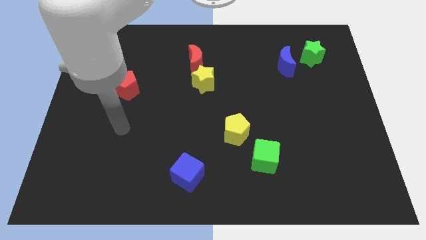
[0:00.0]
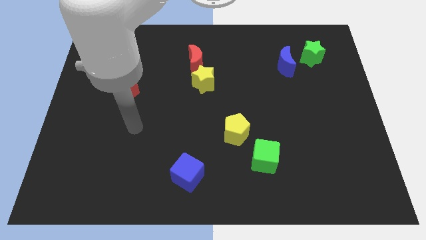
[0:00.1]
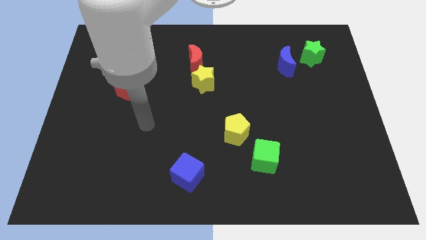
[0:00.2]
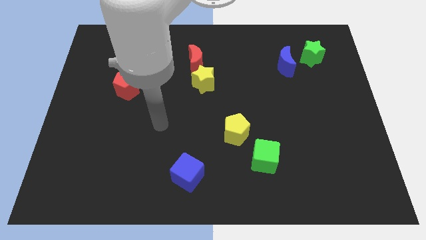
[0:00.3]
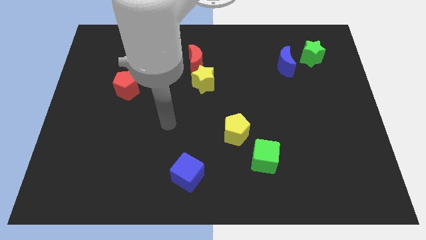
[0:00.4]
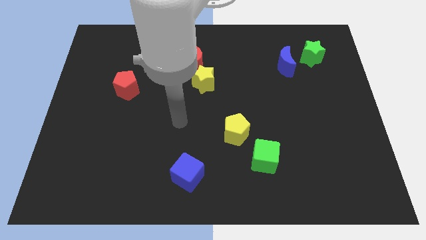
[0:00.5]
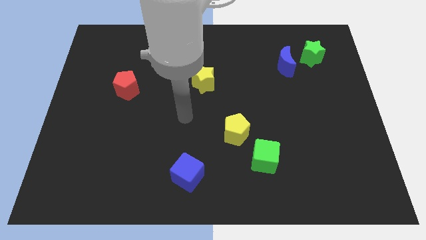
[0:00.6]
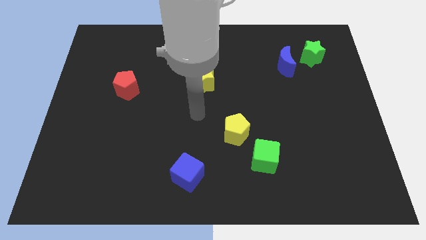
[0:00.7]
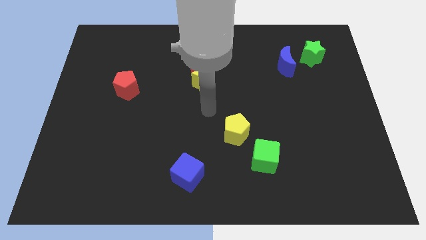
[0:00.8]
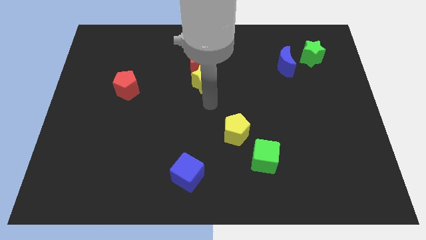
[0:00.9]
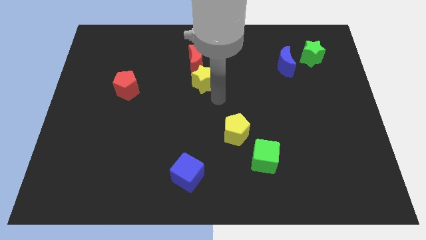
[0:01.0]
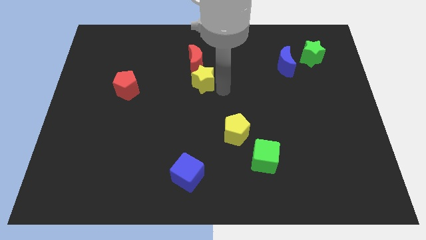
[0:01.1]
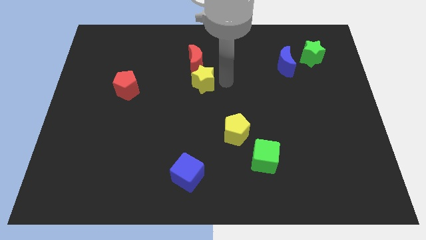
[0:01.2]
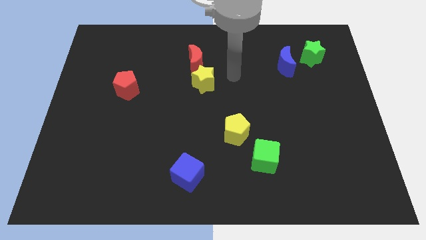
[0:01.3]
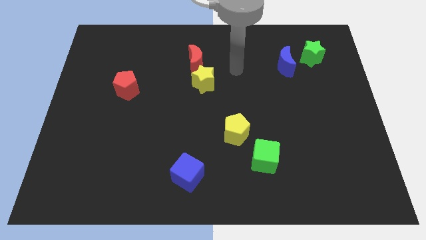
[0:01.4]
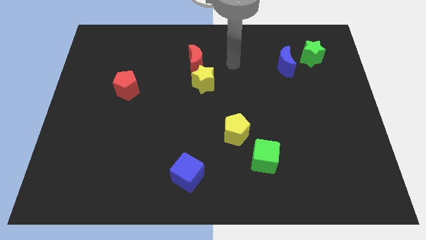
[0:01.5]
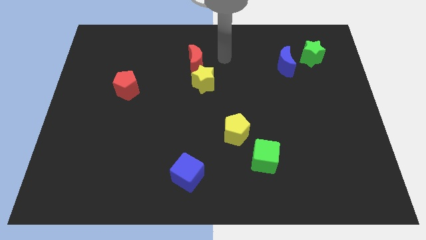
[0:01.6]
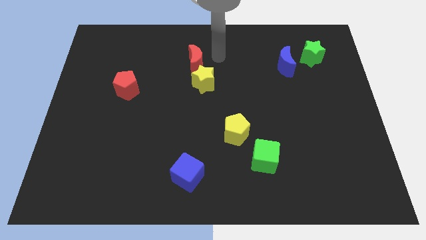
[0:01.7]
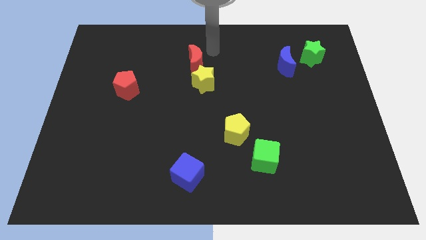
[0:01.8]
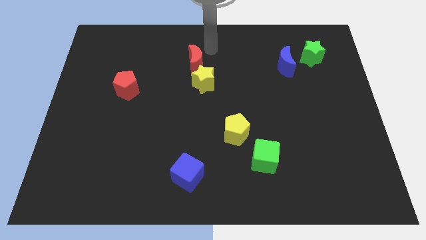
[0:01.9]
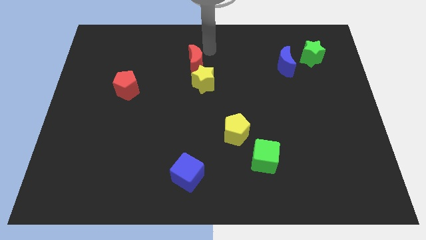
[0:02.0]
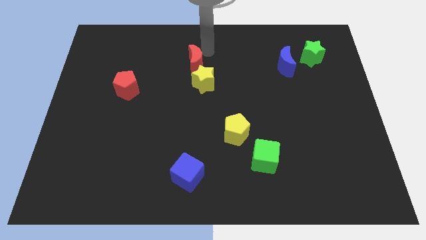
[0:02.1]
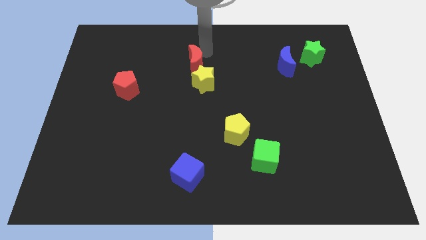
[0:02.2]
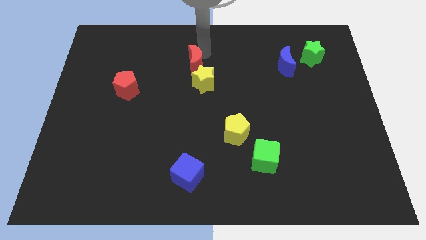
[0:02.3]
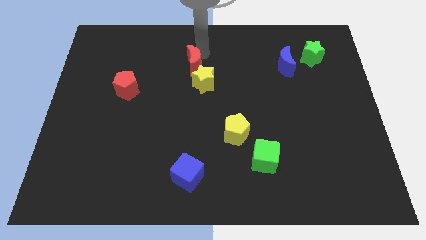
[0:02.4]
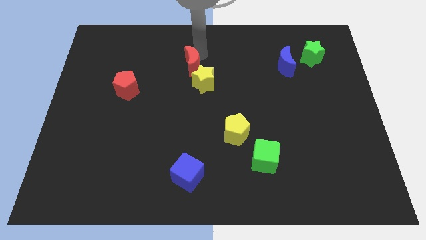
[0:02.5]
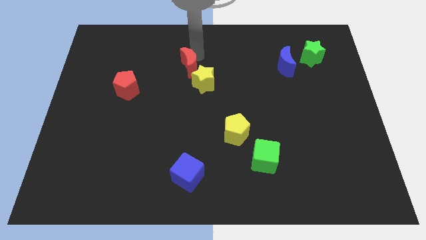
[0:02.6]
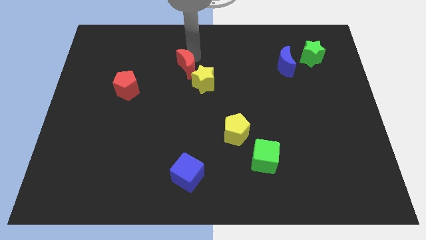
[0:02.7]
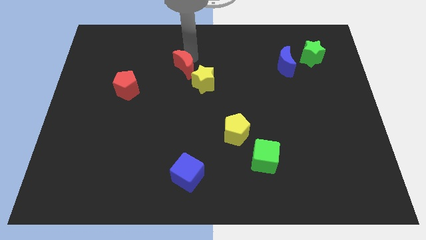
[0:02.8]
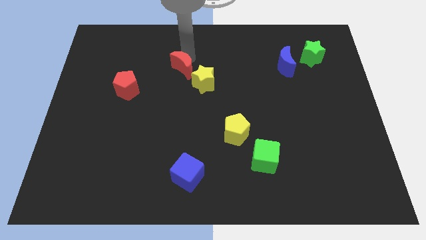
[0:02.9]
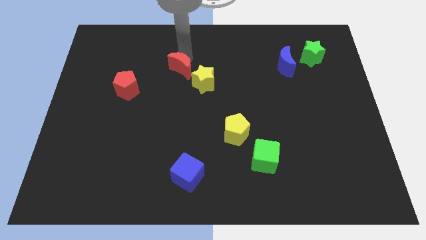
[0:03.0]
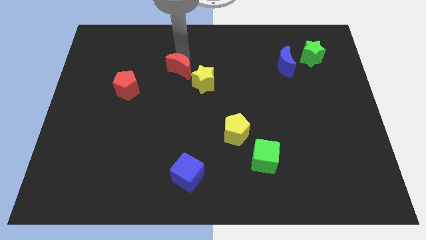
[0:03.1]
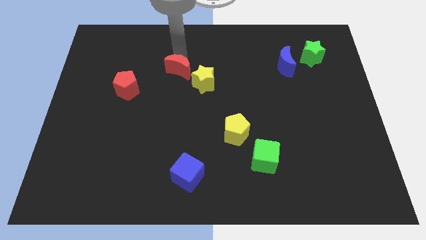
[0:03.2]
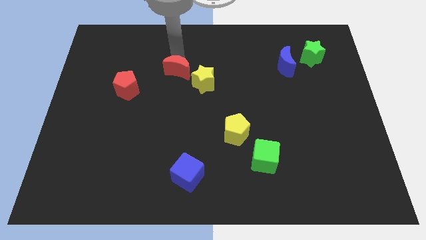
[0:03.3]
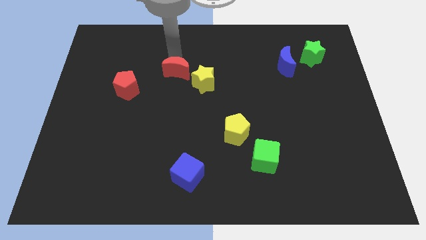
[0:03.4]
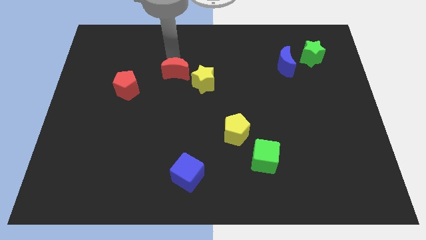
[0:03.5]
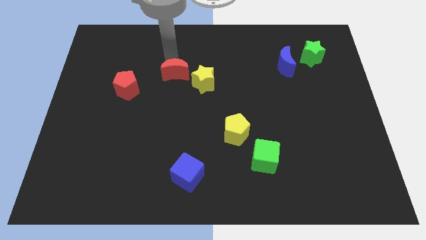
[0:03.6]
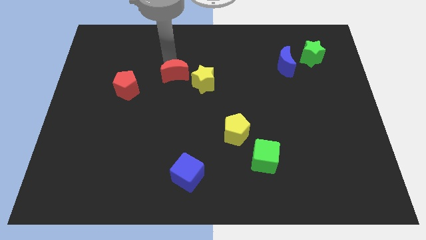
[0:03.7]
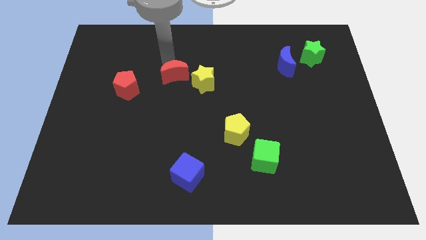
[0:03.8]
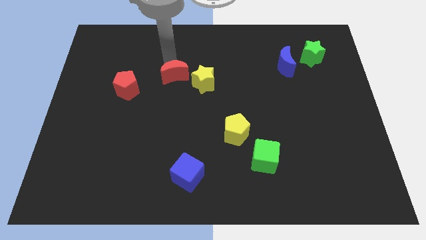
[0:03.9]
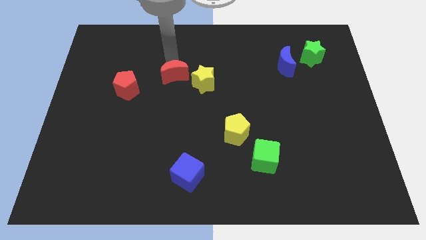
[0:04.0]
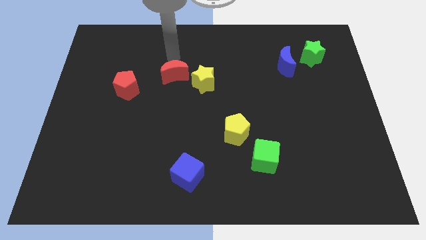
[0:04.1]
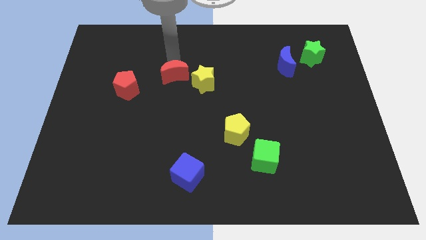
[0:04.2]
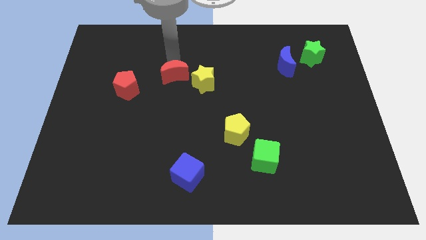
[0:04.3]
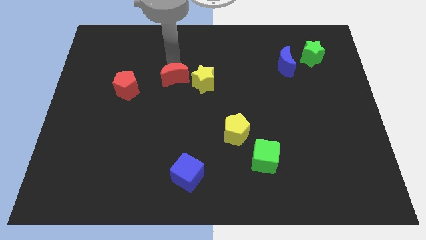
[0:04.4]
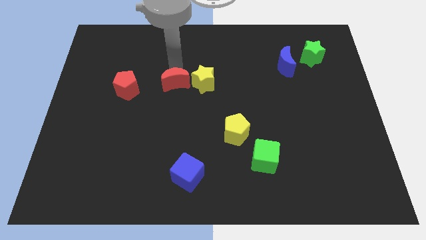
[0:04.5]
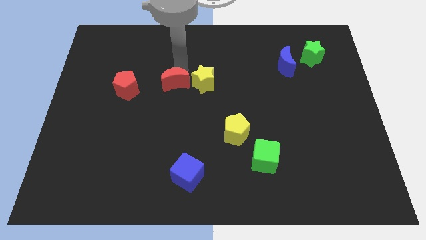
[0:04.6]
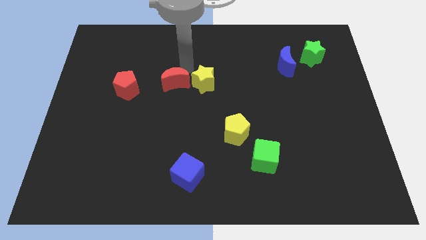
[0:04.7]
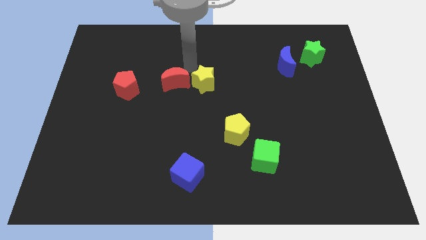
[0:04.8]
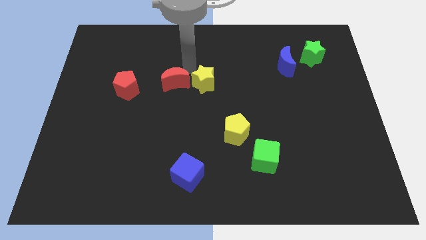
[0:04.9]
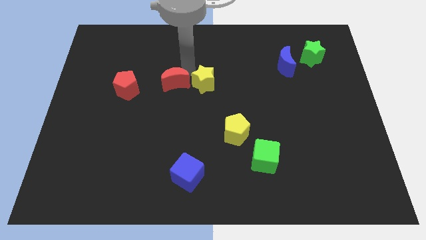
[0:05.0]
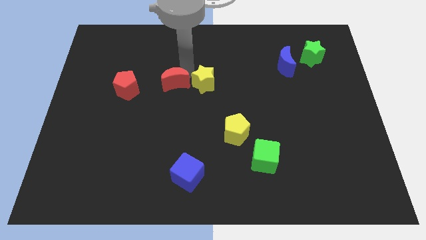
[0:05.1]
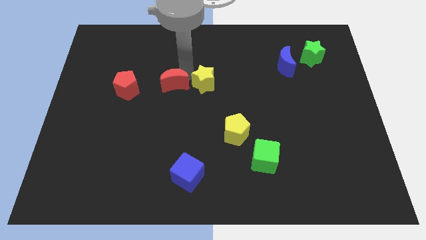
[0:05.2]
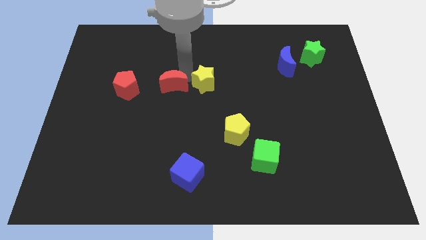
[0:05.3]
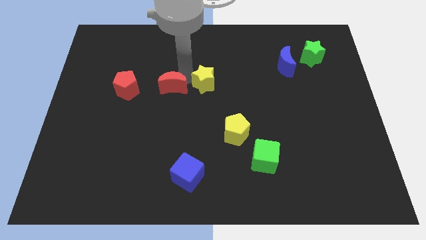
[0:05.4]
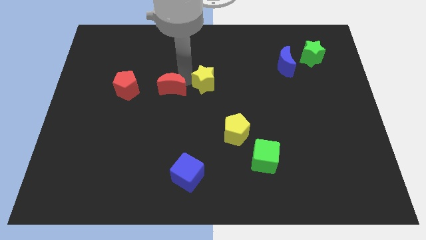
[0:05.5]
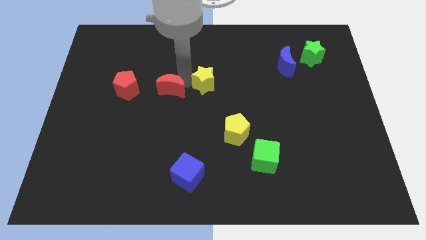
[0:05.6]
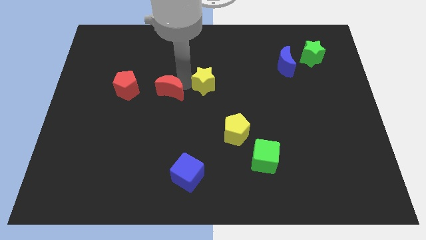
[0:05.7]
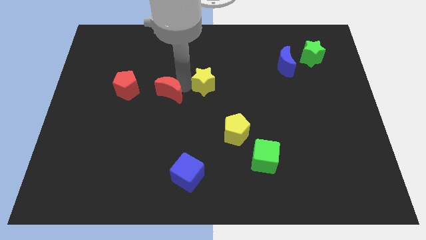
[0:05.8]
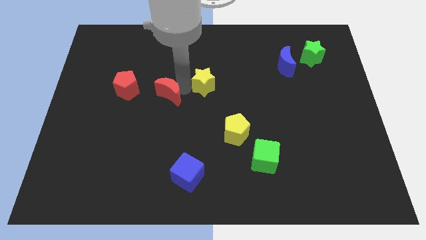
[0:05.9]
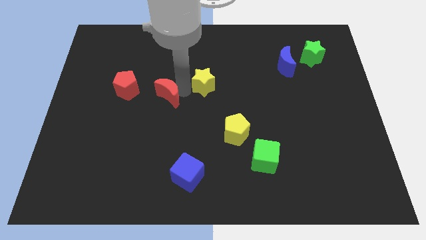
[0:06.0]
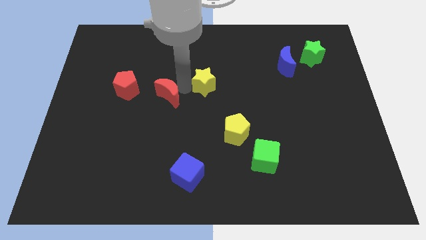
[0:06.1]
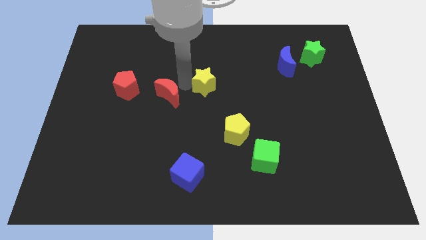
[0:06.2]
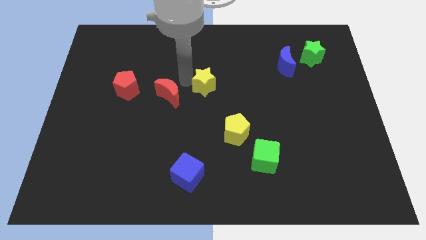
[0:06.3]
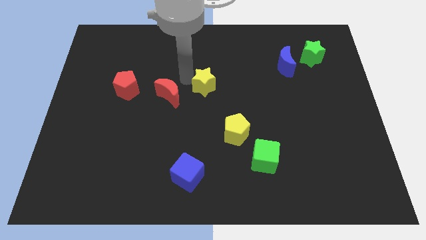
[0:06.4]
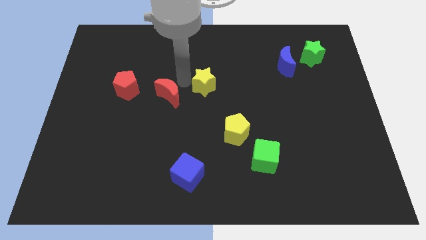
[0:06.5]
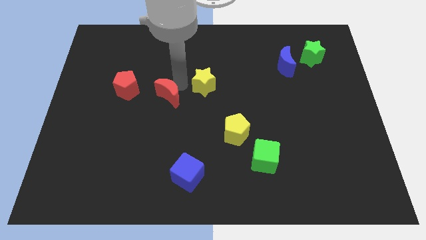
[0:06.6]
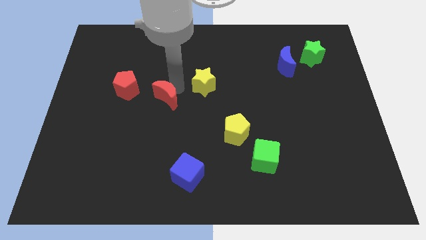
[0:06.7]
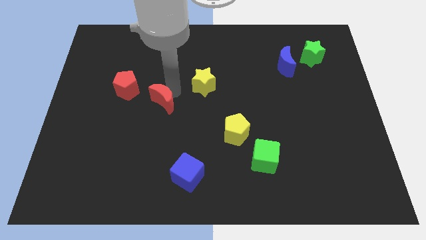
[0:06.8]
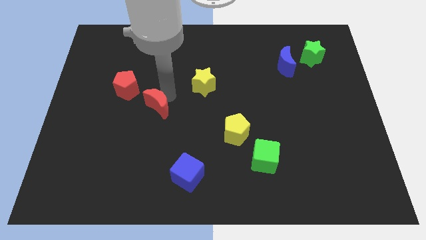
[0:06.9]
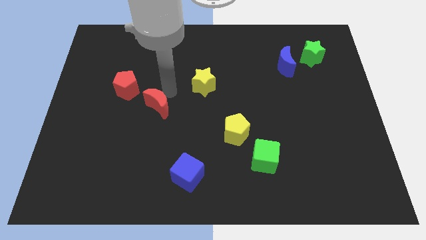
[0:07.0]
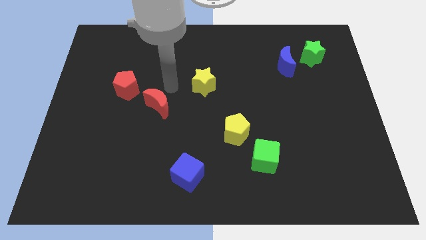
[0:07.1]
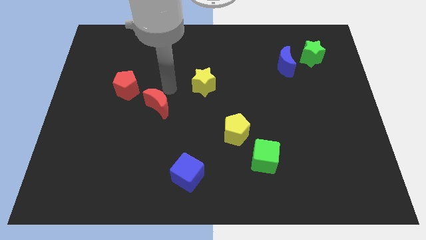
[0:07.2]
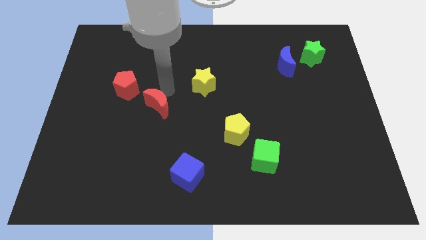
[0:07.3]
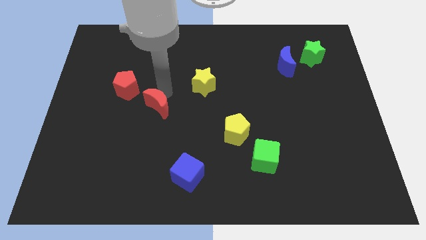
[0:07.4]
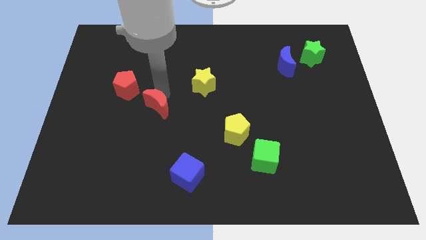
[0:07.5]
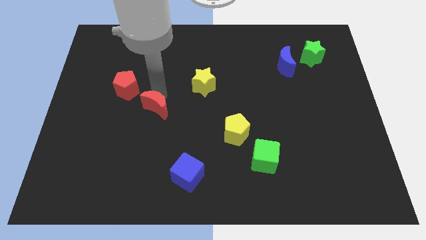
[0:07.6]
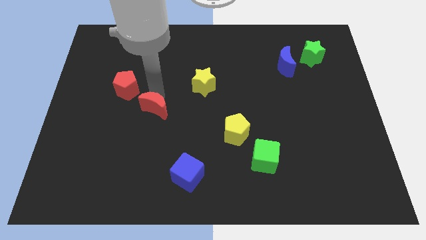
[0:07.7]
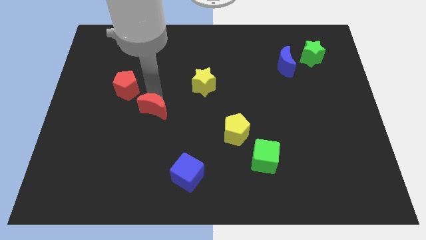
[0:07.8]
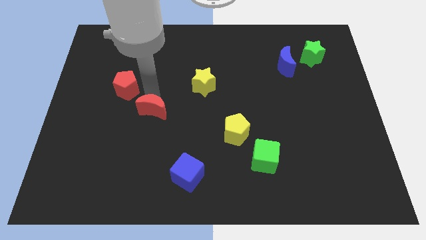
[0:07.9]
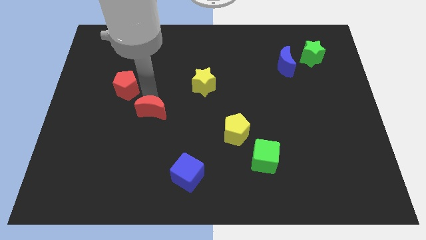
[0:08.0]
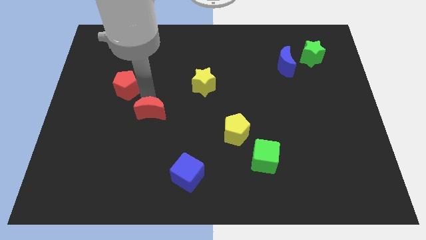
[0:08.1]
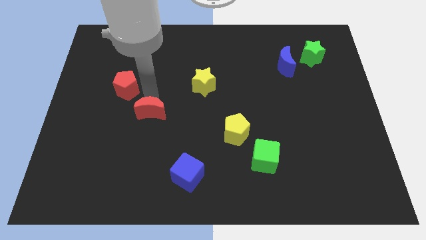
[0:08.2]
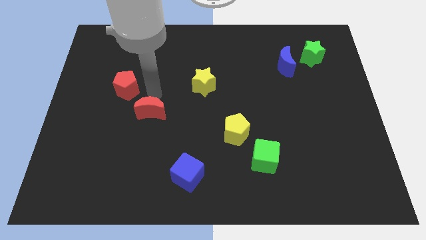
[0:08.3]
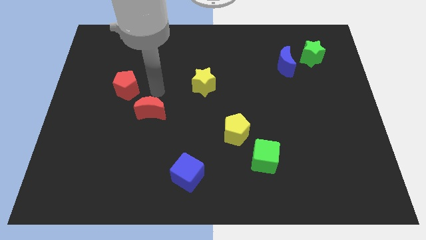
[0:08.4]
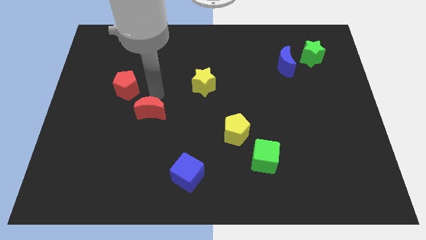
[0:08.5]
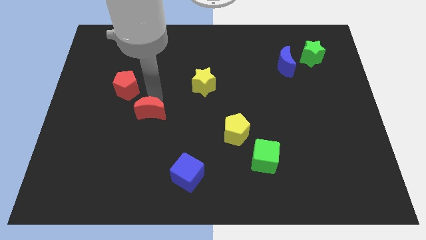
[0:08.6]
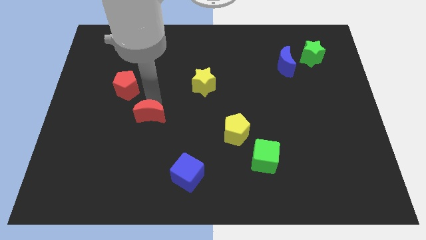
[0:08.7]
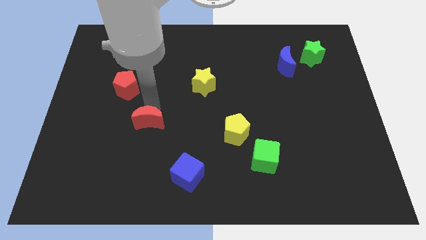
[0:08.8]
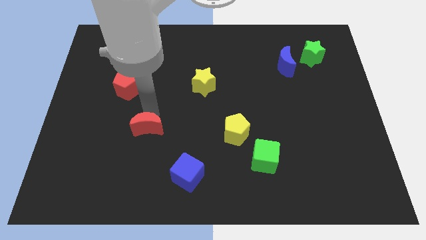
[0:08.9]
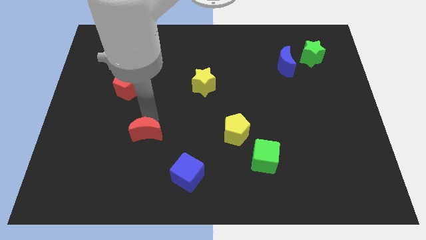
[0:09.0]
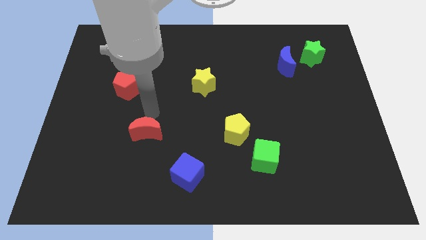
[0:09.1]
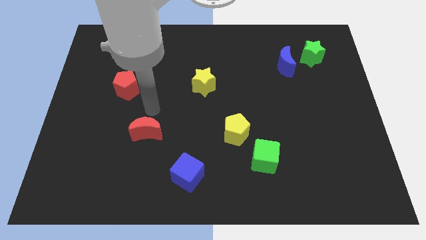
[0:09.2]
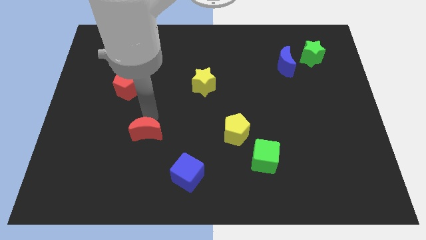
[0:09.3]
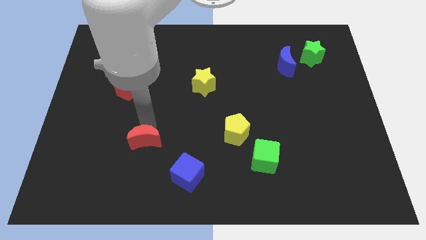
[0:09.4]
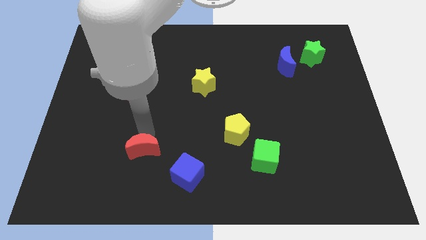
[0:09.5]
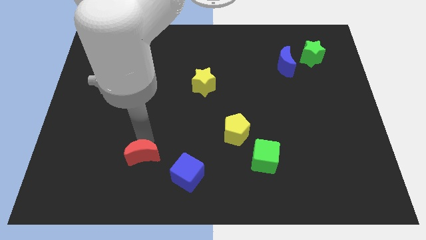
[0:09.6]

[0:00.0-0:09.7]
slide the red moon to the left side of the blue cube
